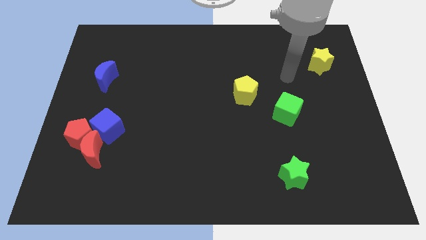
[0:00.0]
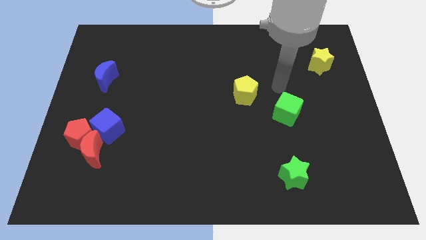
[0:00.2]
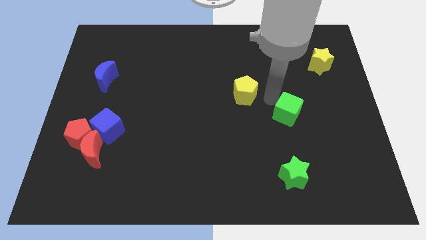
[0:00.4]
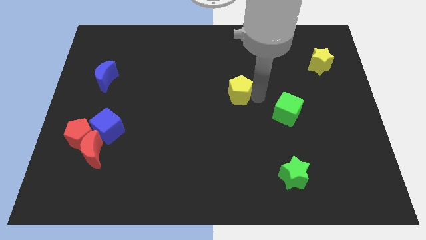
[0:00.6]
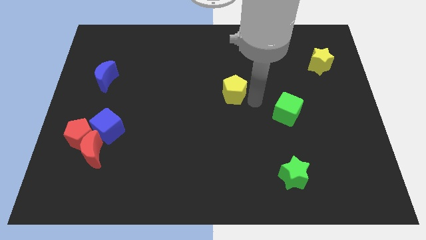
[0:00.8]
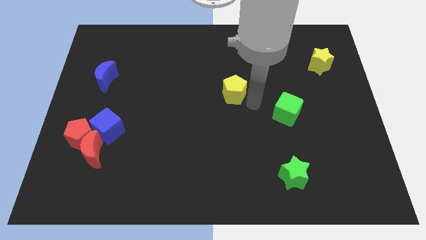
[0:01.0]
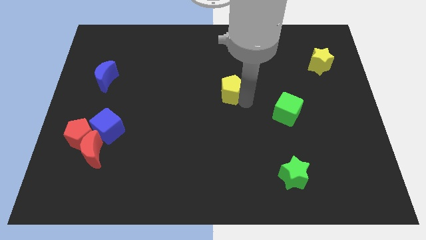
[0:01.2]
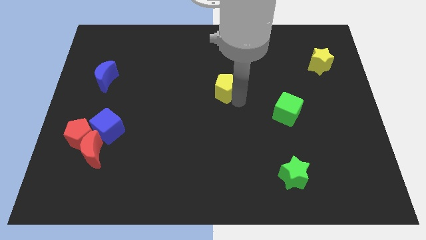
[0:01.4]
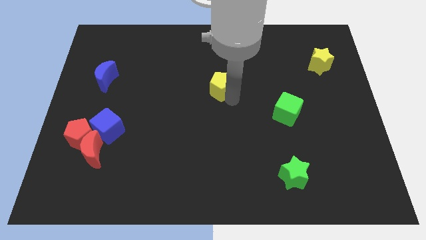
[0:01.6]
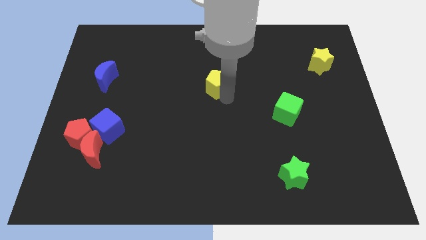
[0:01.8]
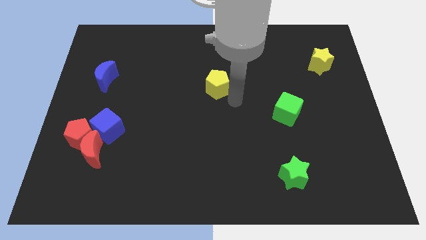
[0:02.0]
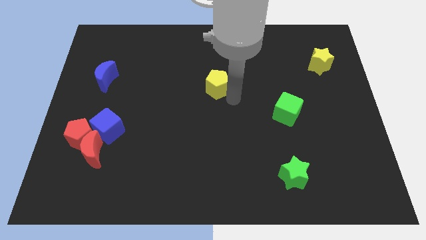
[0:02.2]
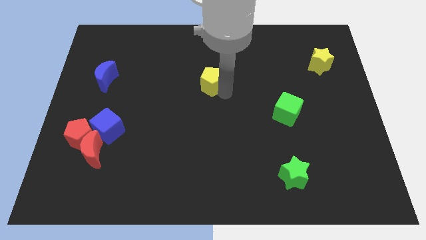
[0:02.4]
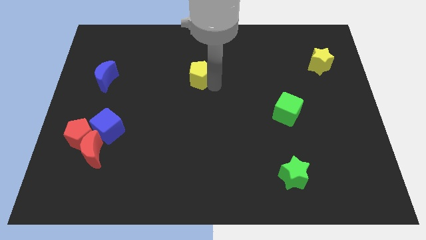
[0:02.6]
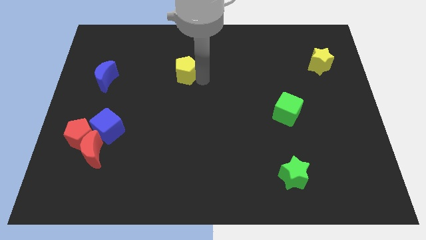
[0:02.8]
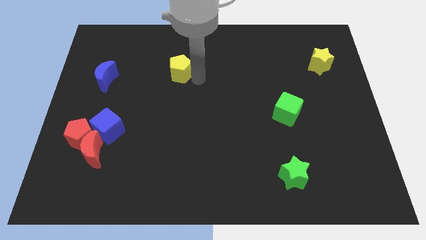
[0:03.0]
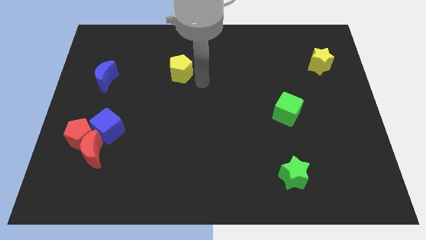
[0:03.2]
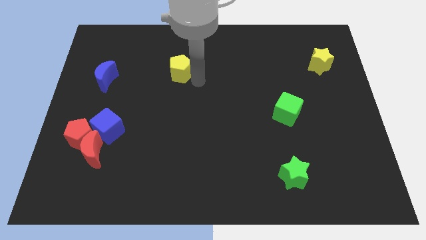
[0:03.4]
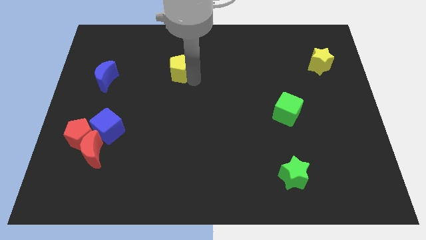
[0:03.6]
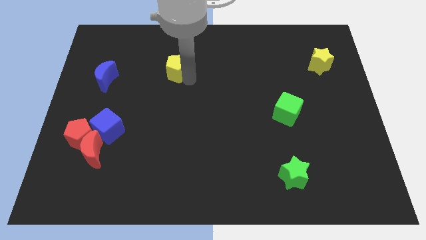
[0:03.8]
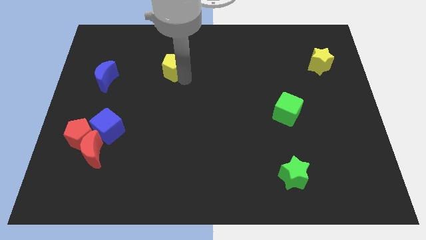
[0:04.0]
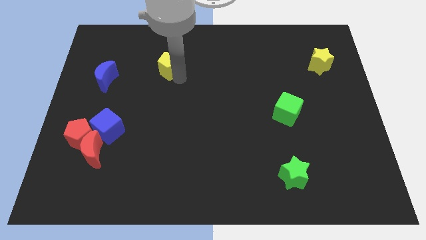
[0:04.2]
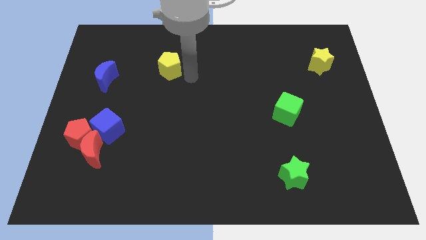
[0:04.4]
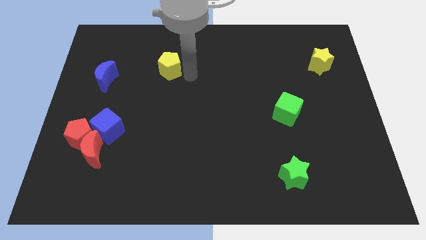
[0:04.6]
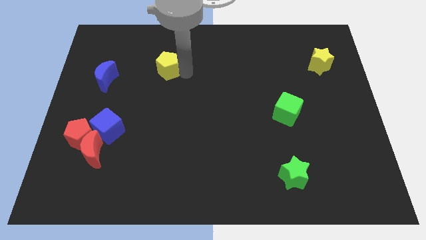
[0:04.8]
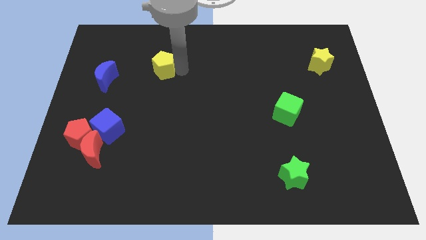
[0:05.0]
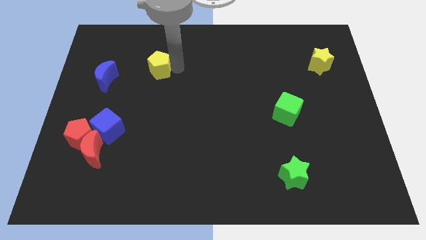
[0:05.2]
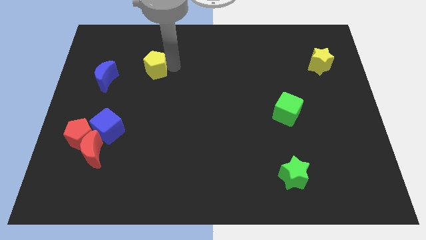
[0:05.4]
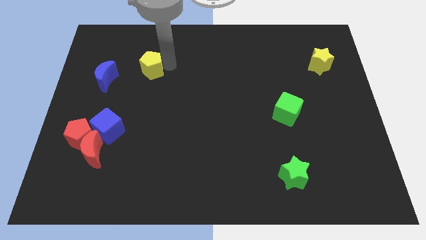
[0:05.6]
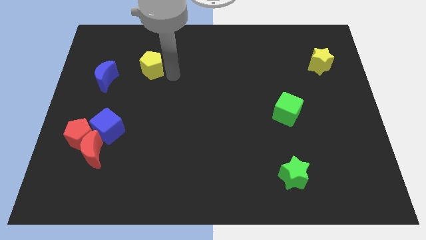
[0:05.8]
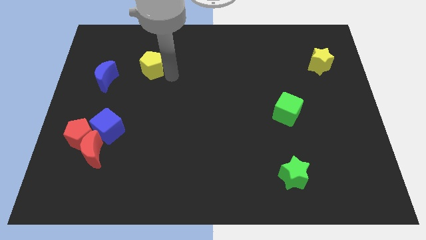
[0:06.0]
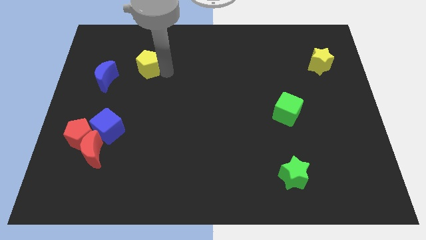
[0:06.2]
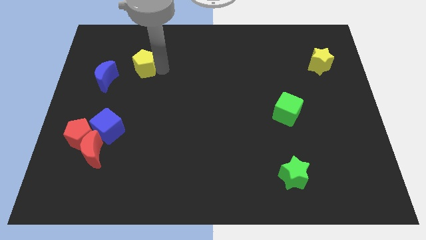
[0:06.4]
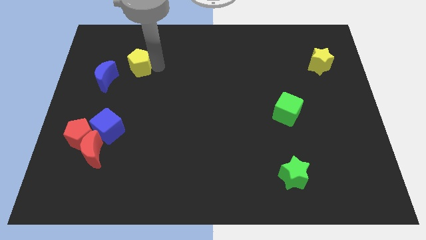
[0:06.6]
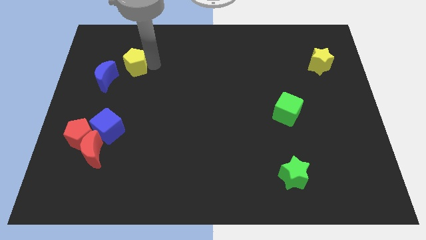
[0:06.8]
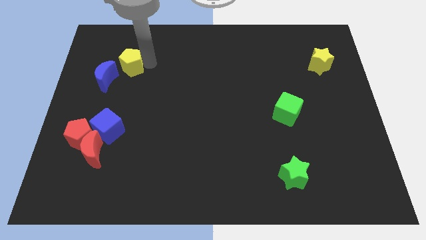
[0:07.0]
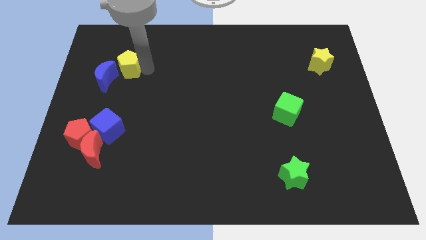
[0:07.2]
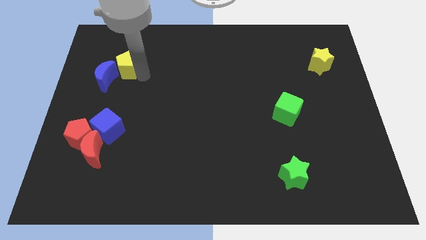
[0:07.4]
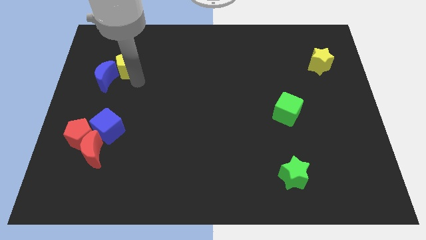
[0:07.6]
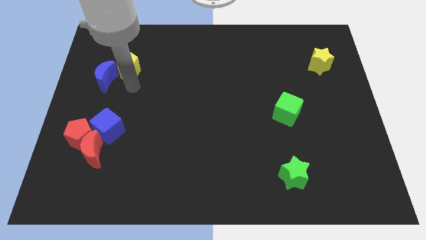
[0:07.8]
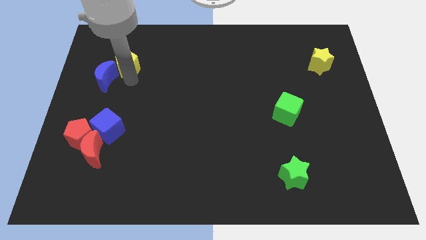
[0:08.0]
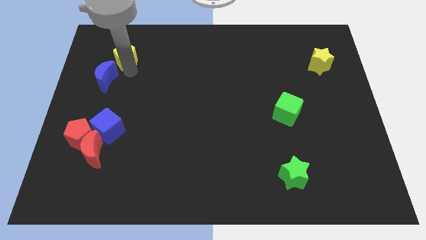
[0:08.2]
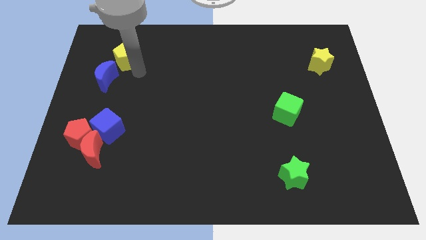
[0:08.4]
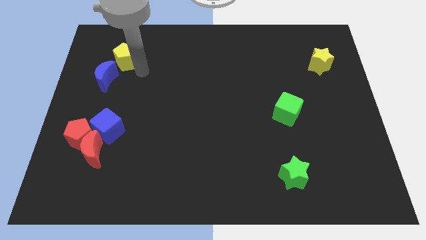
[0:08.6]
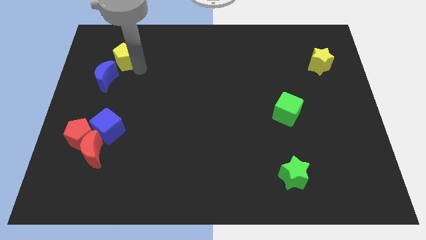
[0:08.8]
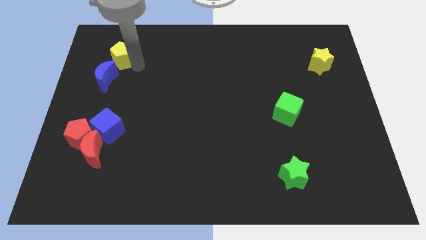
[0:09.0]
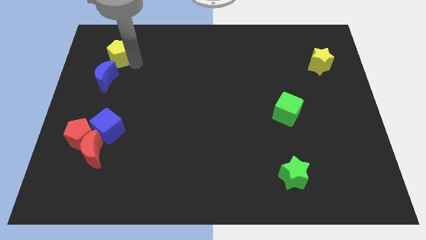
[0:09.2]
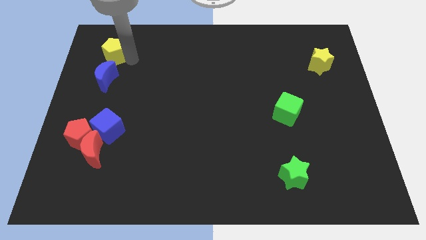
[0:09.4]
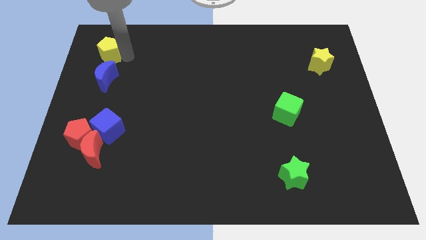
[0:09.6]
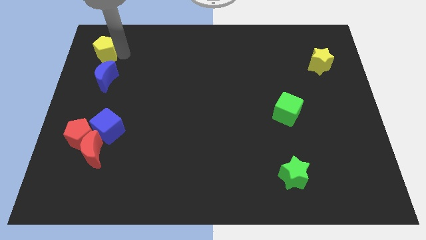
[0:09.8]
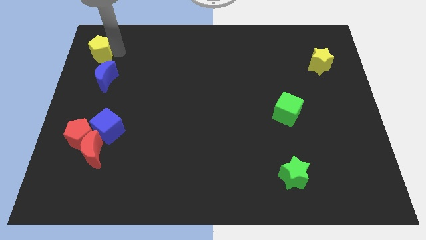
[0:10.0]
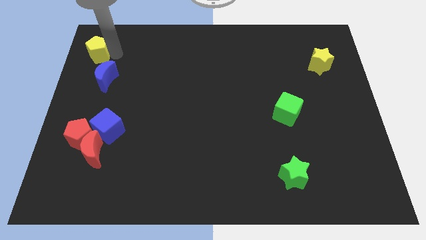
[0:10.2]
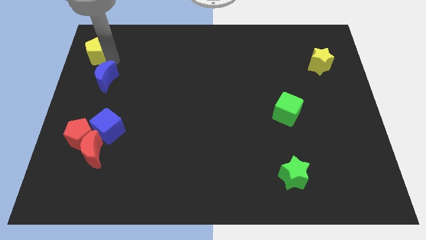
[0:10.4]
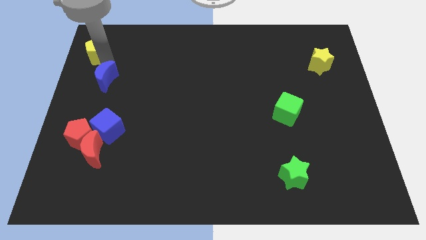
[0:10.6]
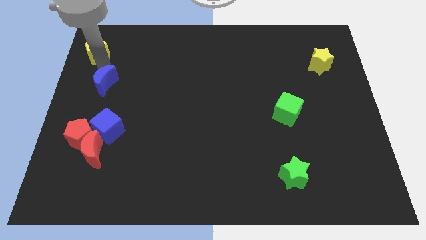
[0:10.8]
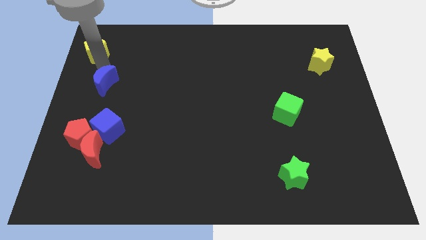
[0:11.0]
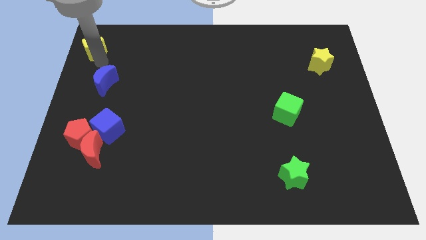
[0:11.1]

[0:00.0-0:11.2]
put the yellow pentagon to the upper left corner
